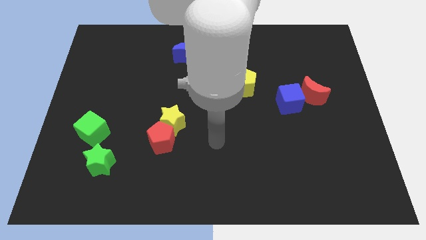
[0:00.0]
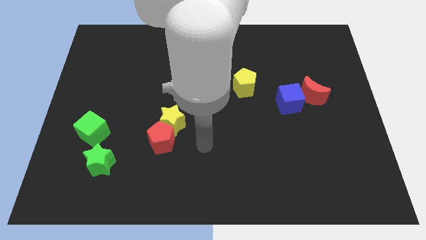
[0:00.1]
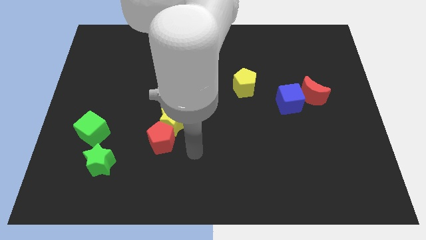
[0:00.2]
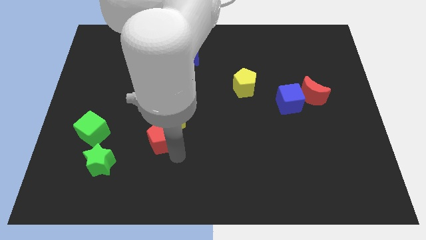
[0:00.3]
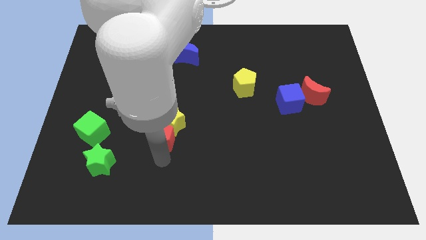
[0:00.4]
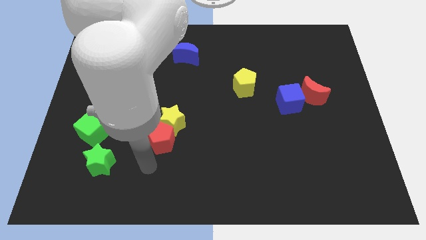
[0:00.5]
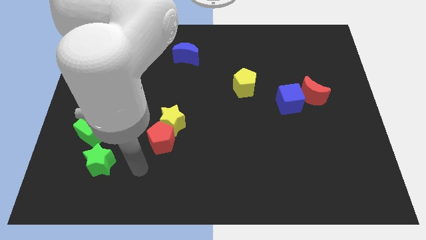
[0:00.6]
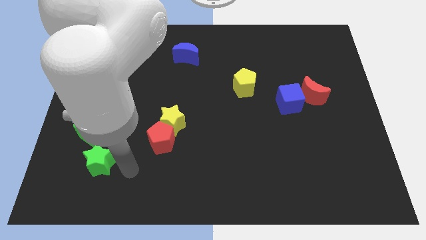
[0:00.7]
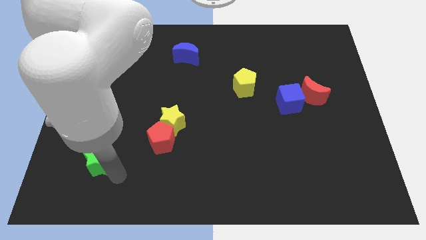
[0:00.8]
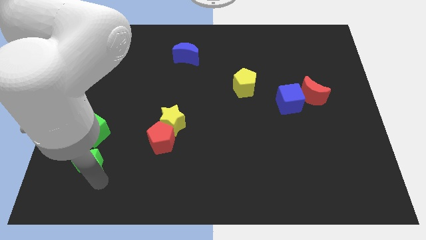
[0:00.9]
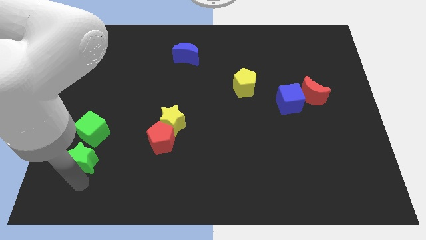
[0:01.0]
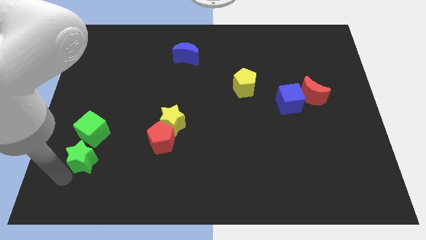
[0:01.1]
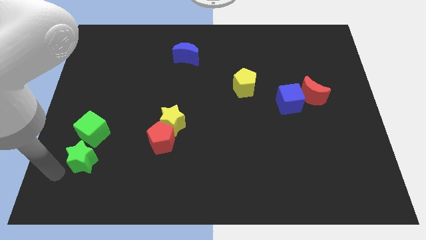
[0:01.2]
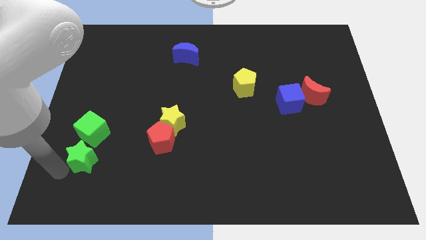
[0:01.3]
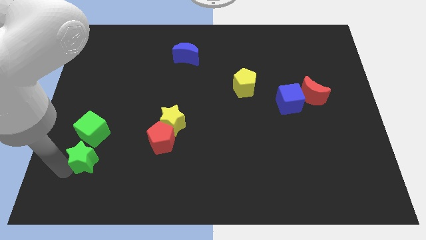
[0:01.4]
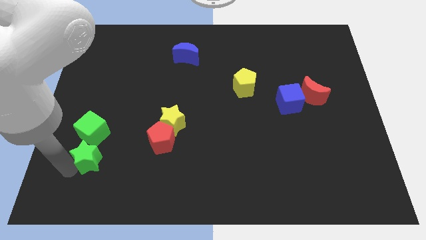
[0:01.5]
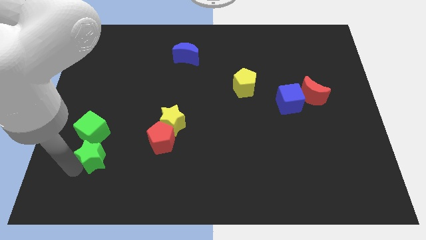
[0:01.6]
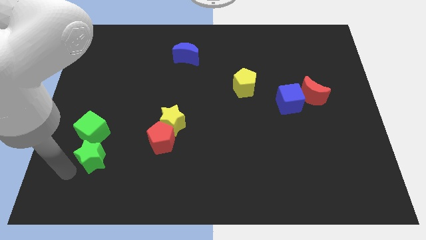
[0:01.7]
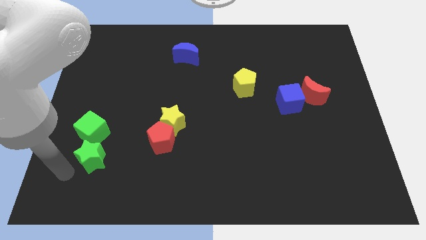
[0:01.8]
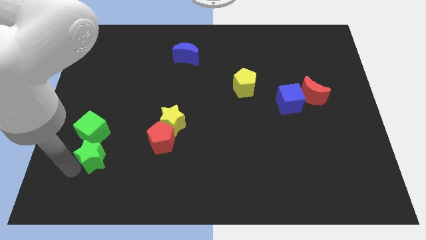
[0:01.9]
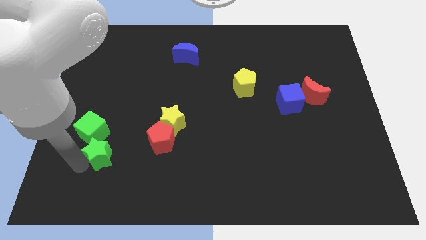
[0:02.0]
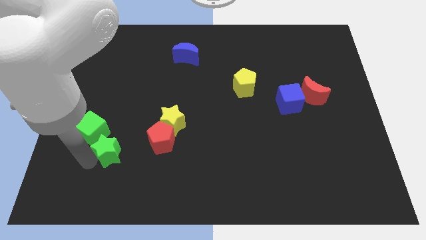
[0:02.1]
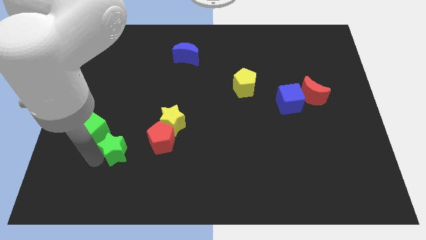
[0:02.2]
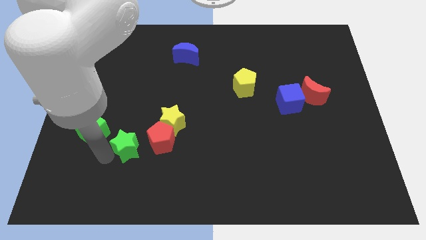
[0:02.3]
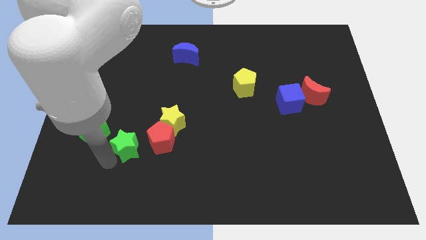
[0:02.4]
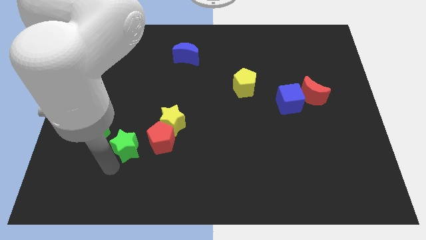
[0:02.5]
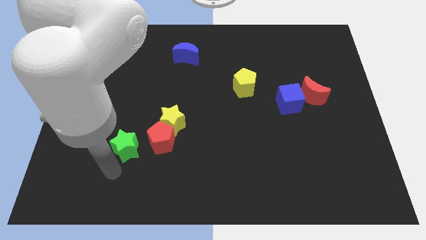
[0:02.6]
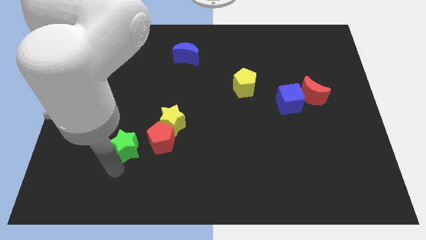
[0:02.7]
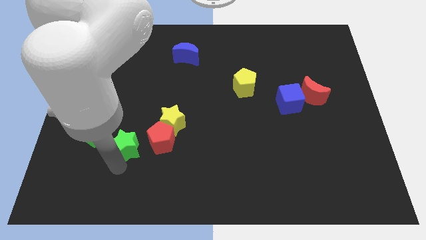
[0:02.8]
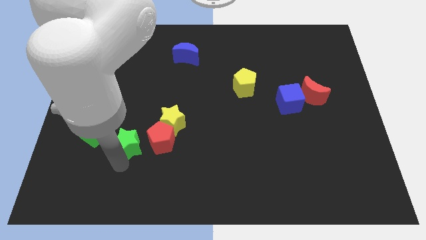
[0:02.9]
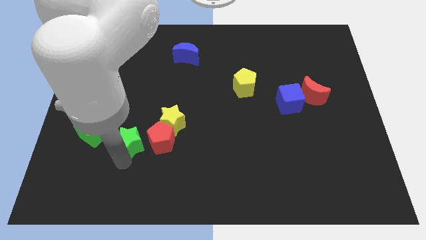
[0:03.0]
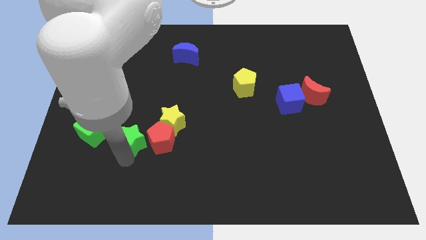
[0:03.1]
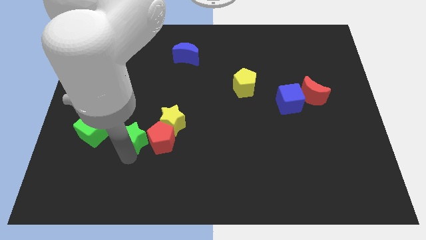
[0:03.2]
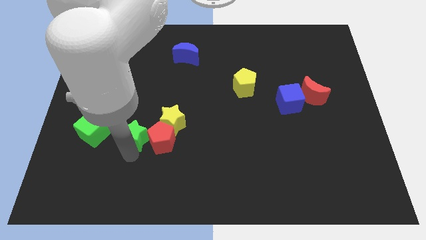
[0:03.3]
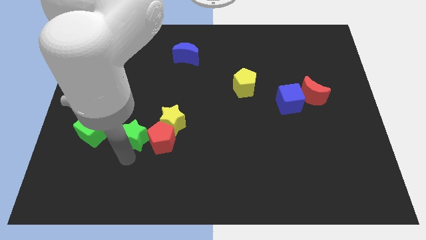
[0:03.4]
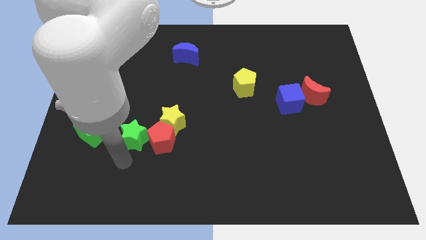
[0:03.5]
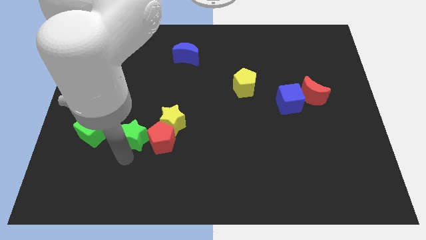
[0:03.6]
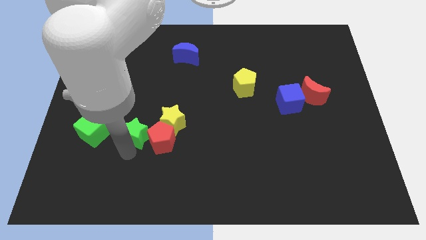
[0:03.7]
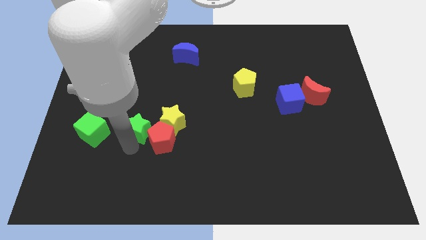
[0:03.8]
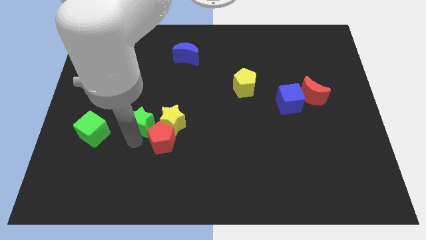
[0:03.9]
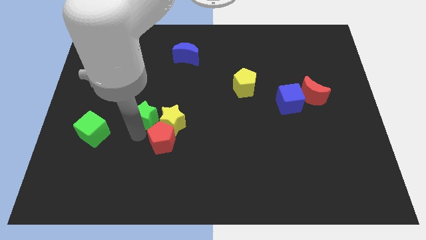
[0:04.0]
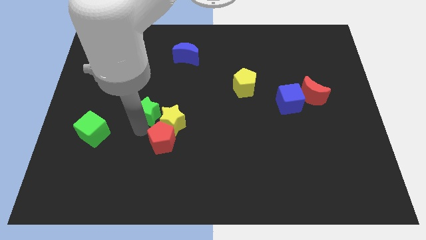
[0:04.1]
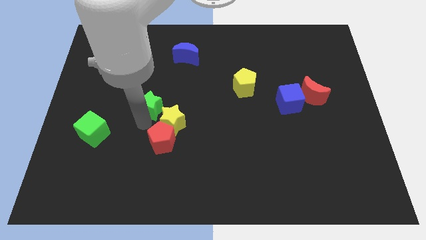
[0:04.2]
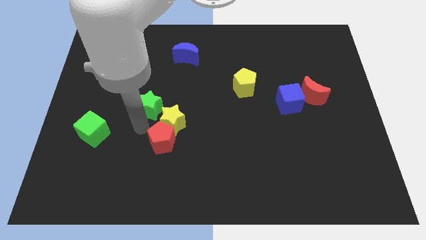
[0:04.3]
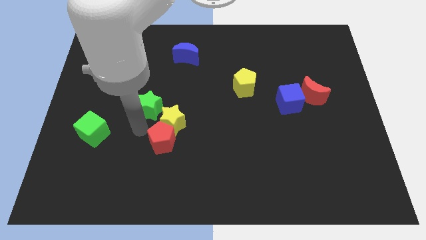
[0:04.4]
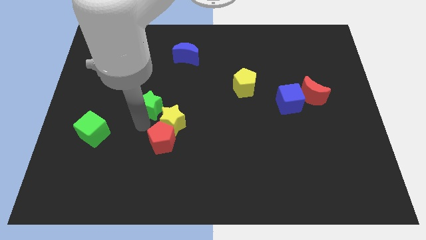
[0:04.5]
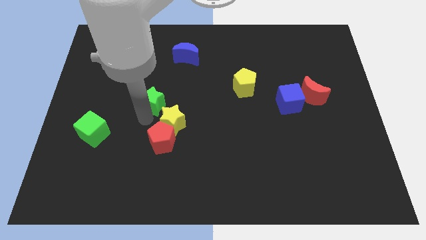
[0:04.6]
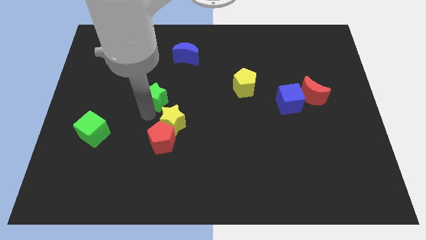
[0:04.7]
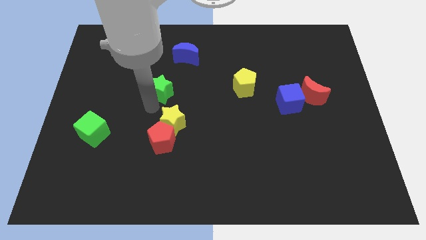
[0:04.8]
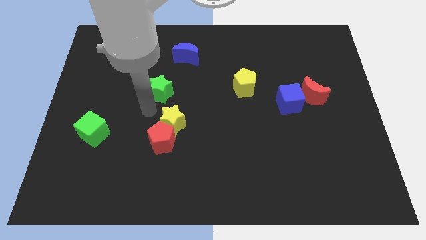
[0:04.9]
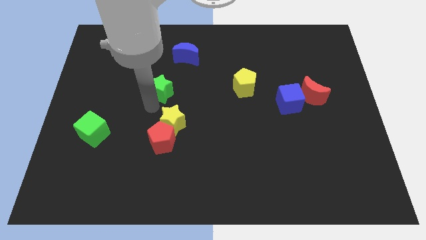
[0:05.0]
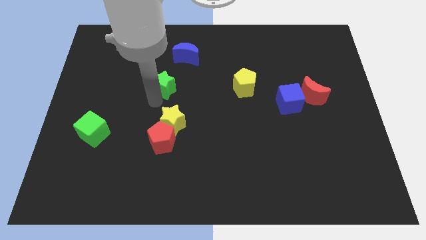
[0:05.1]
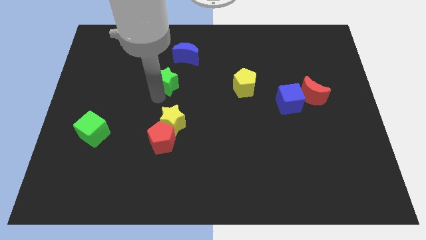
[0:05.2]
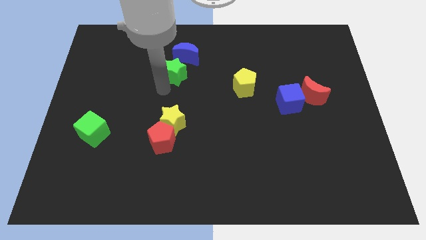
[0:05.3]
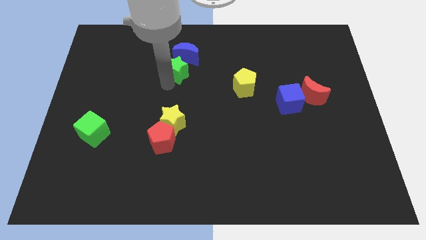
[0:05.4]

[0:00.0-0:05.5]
put the green star next to the blue moon

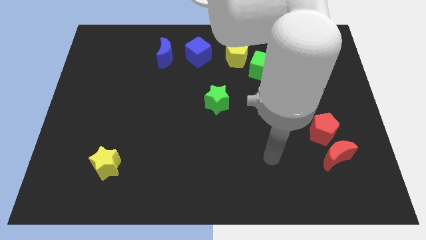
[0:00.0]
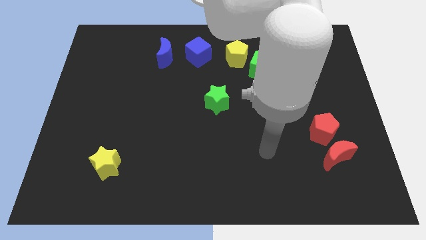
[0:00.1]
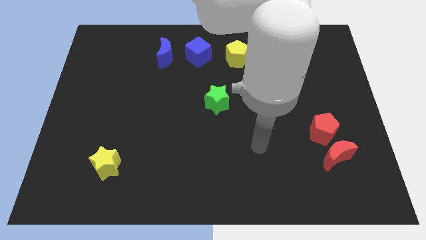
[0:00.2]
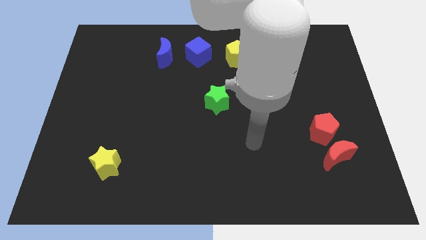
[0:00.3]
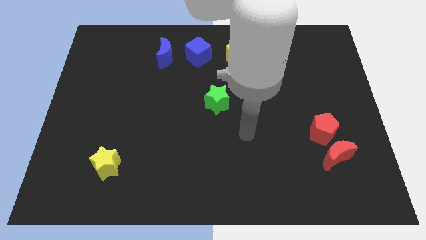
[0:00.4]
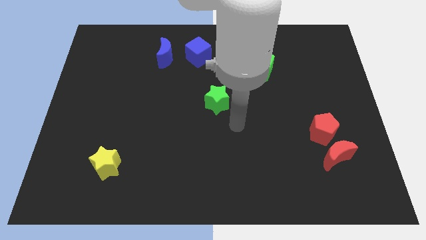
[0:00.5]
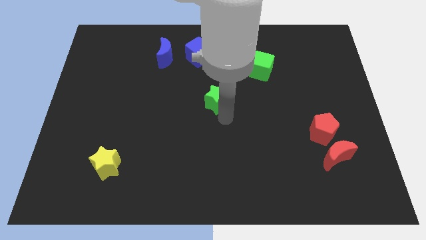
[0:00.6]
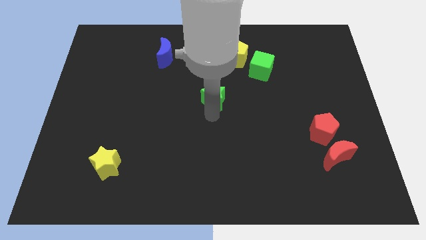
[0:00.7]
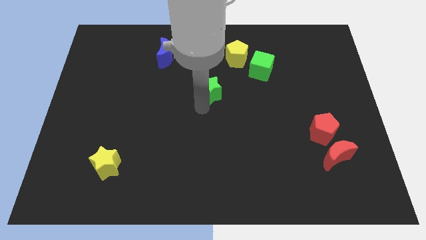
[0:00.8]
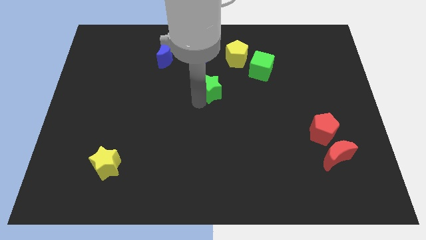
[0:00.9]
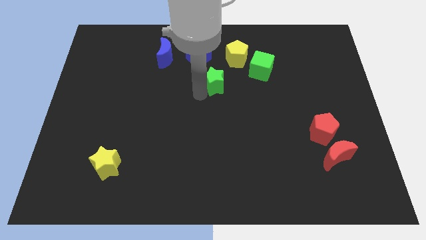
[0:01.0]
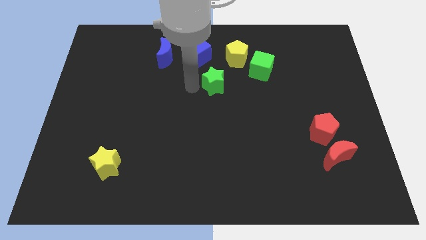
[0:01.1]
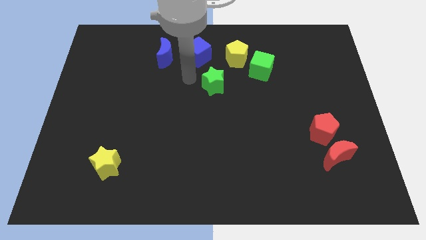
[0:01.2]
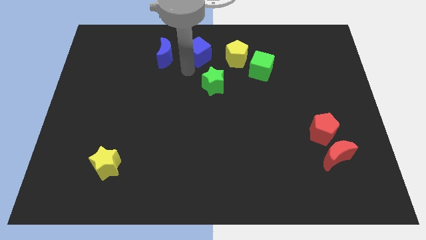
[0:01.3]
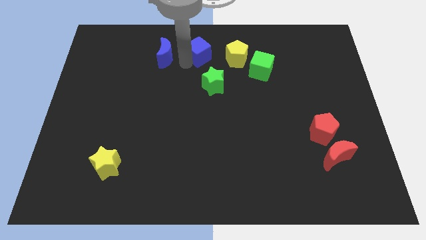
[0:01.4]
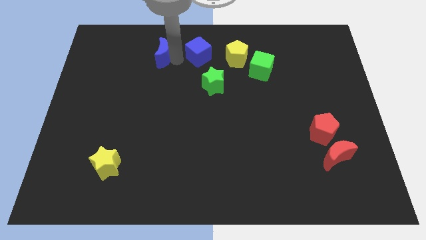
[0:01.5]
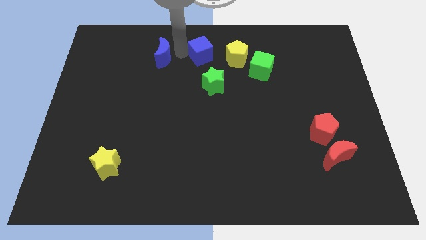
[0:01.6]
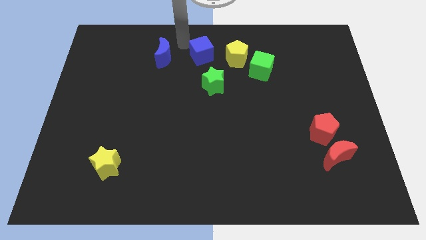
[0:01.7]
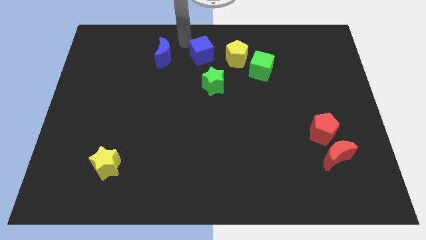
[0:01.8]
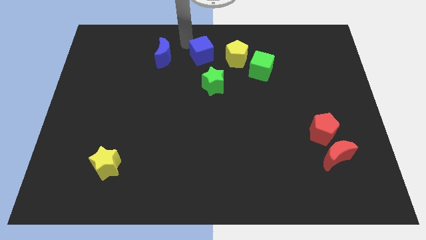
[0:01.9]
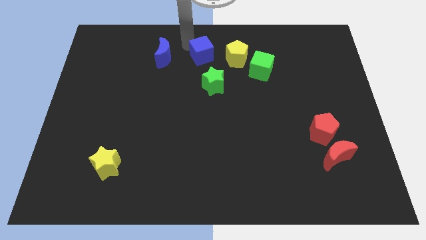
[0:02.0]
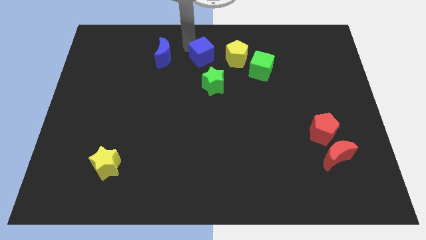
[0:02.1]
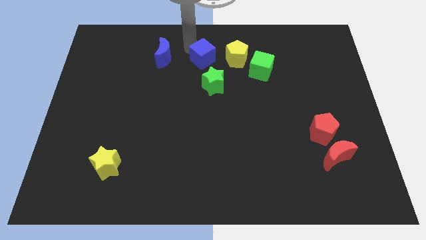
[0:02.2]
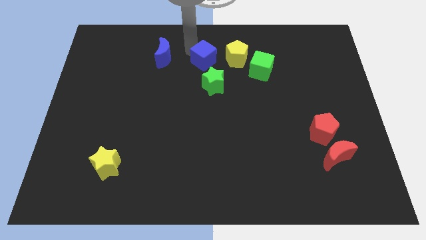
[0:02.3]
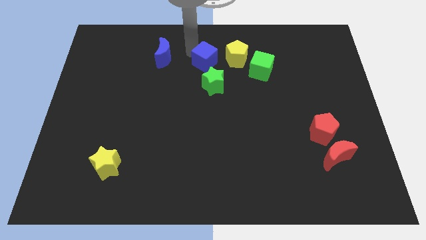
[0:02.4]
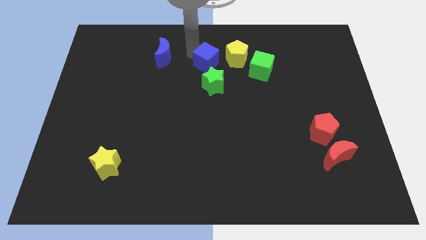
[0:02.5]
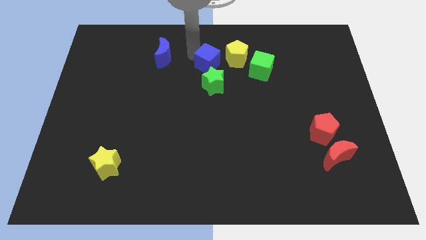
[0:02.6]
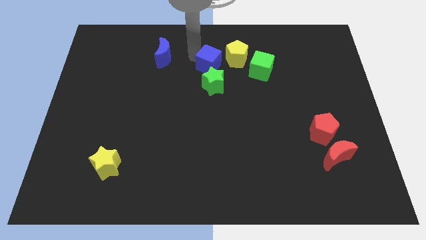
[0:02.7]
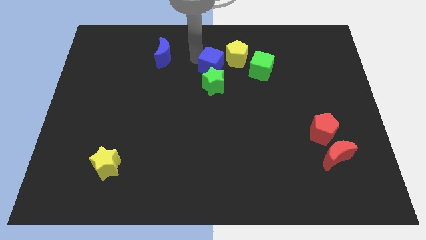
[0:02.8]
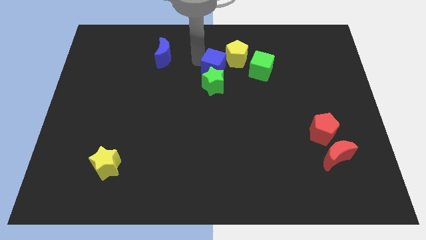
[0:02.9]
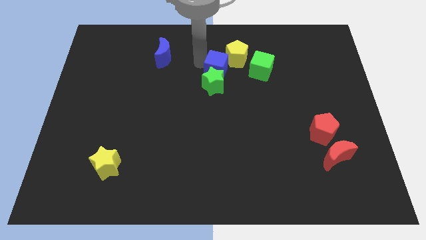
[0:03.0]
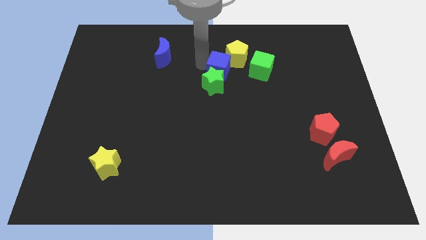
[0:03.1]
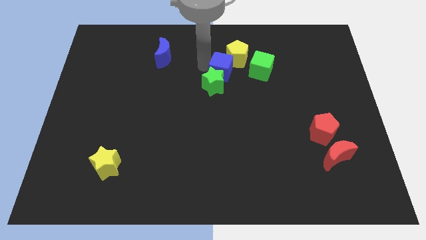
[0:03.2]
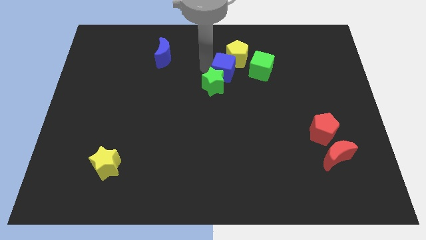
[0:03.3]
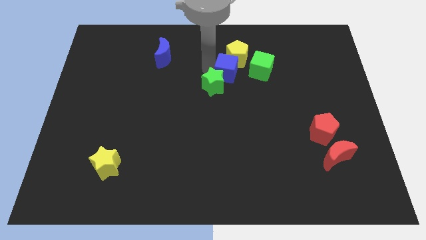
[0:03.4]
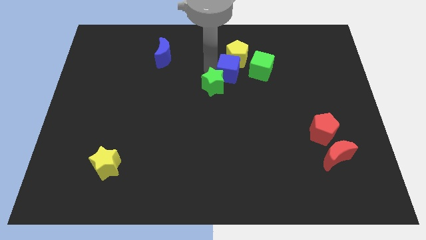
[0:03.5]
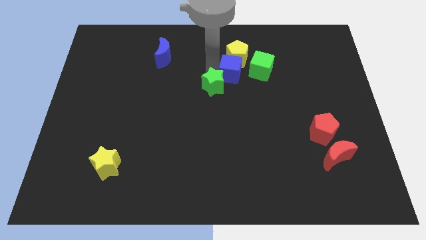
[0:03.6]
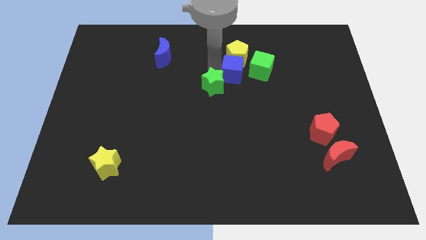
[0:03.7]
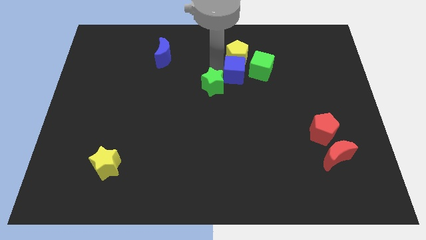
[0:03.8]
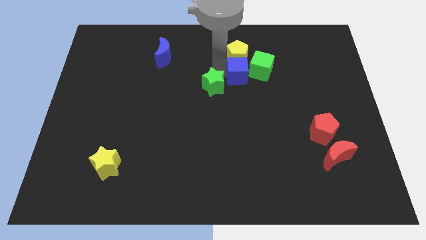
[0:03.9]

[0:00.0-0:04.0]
slide the blue cube to the green cube
